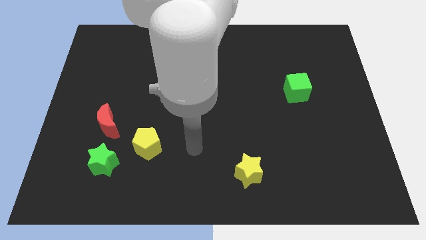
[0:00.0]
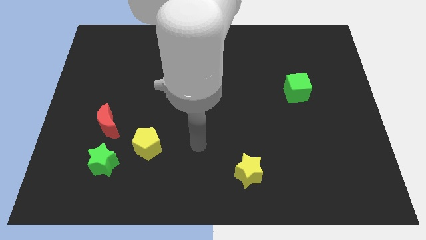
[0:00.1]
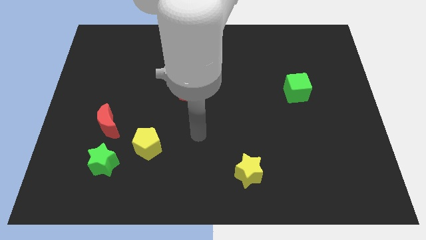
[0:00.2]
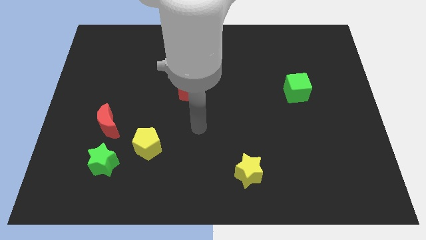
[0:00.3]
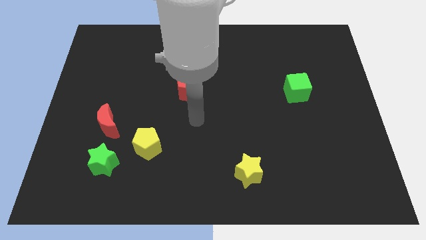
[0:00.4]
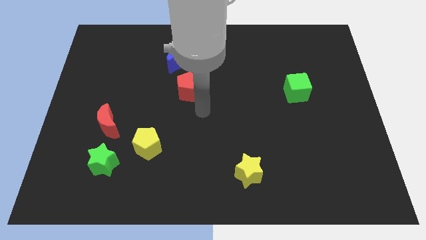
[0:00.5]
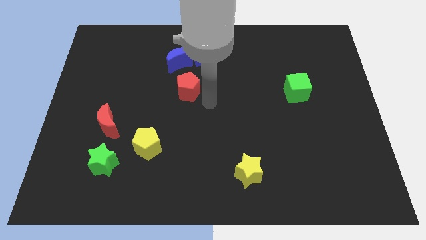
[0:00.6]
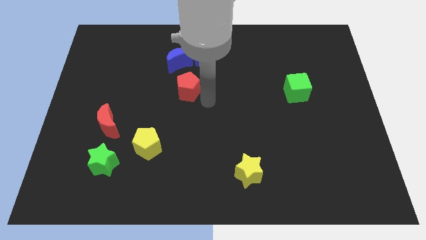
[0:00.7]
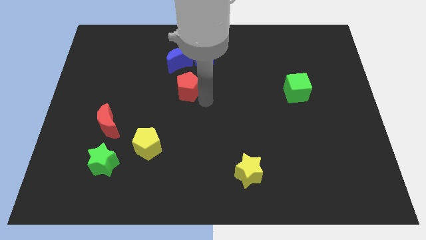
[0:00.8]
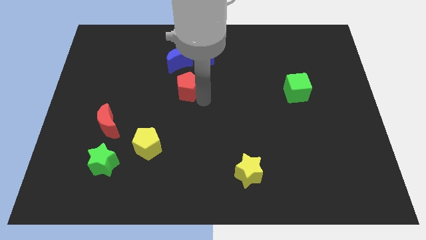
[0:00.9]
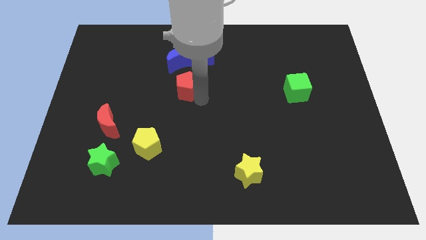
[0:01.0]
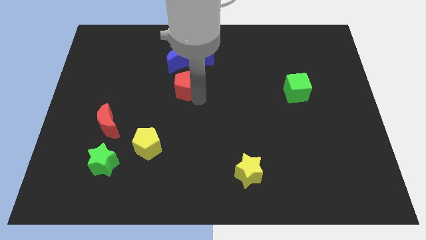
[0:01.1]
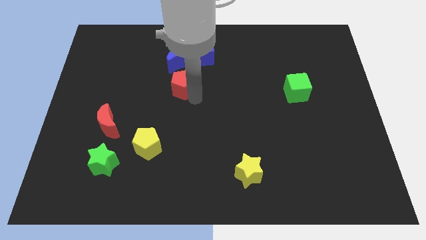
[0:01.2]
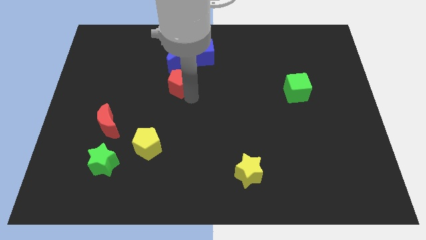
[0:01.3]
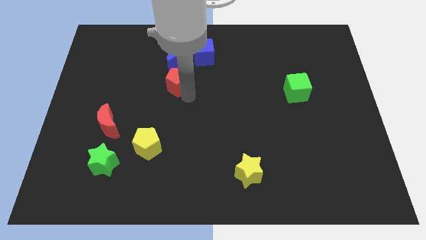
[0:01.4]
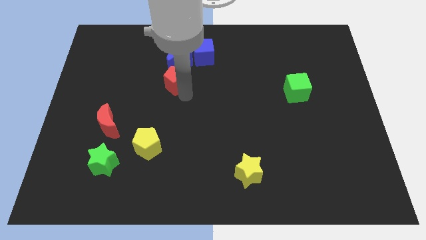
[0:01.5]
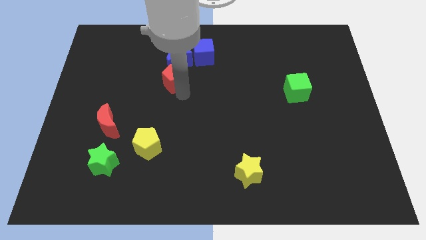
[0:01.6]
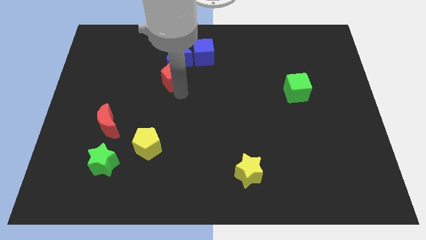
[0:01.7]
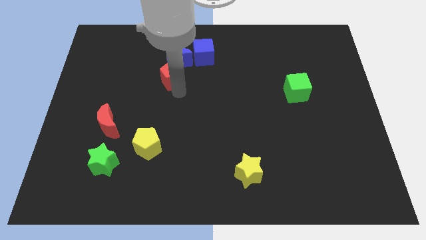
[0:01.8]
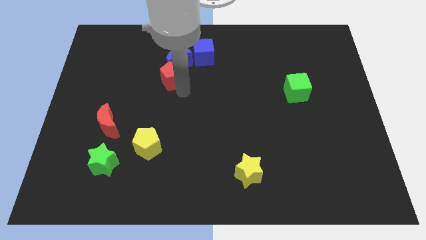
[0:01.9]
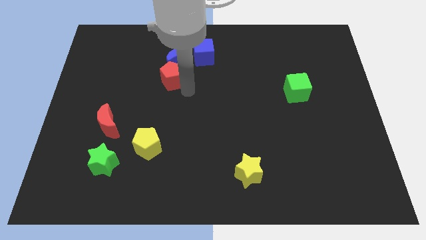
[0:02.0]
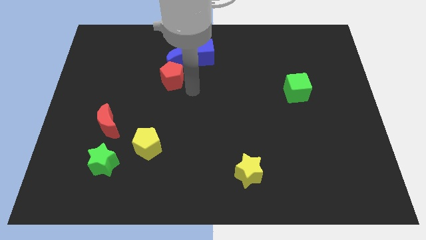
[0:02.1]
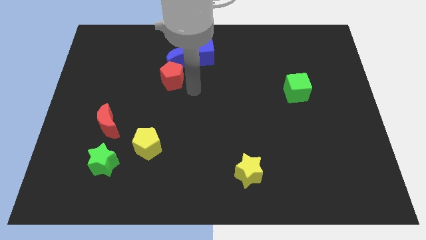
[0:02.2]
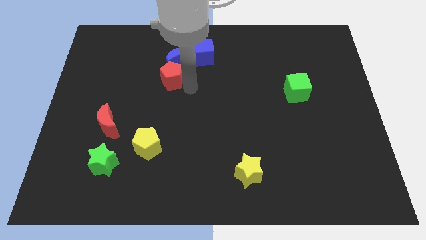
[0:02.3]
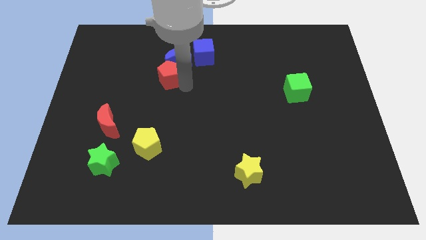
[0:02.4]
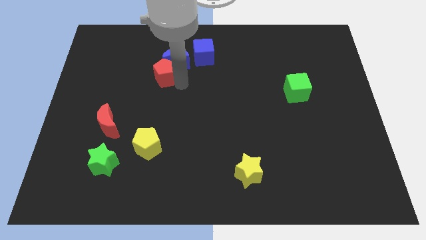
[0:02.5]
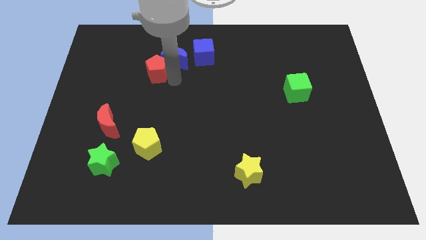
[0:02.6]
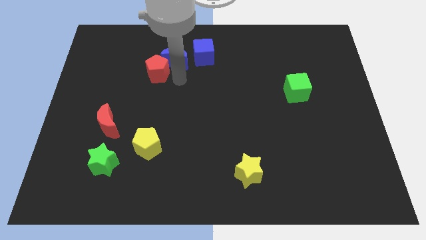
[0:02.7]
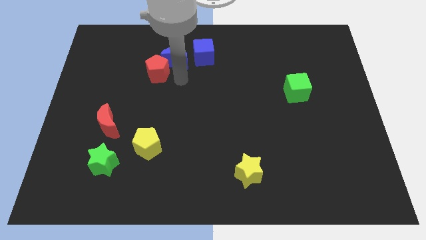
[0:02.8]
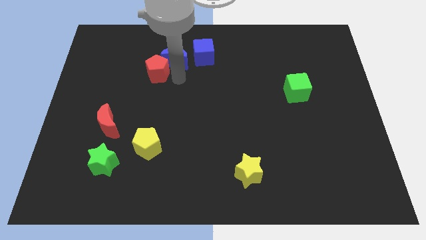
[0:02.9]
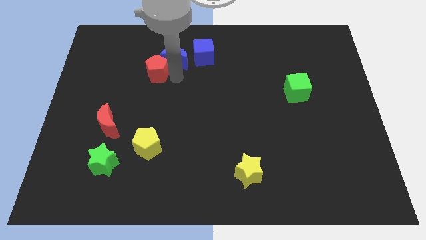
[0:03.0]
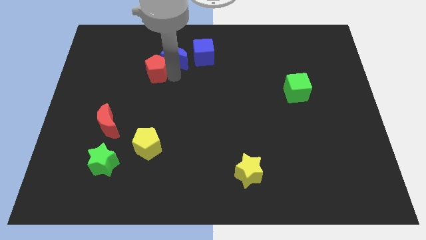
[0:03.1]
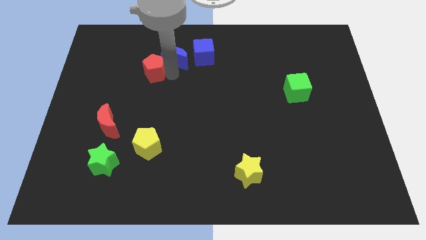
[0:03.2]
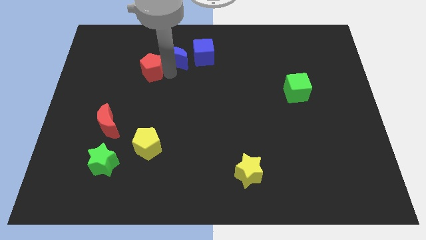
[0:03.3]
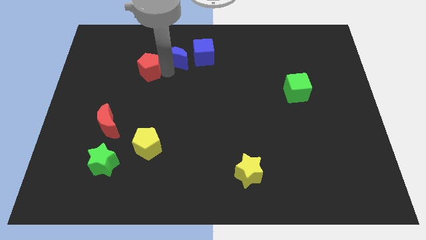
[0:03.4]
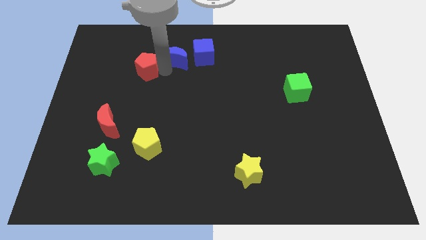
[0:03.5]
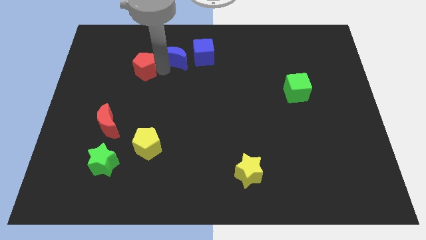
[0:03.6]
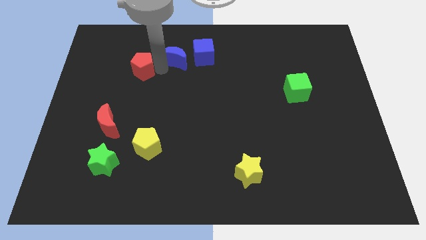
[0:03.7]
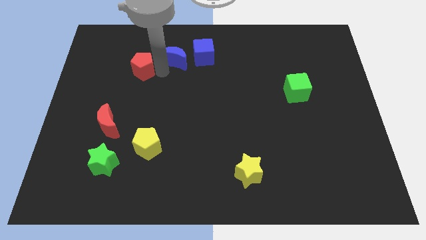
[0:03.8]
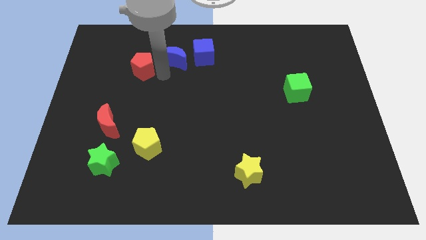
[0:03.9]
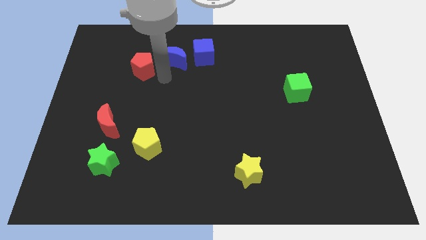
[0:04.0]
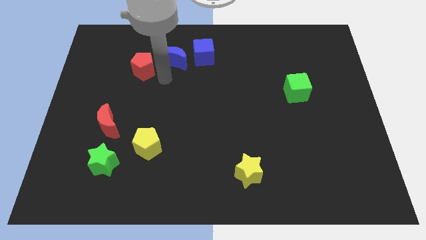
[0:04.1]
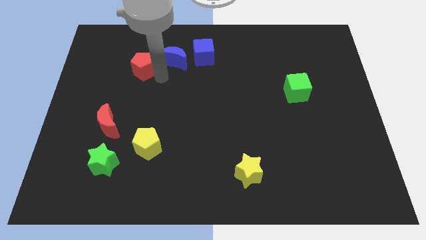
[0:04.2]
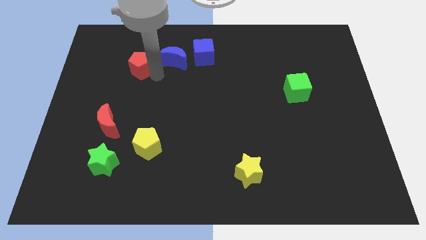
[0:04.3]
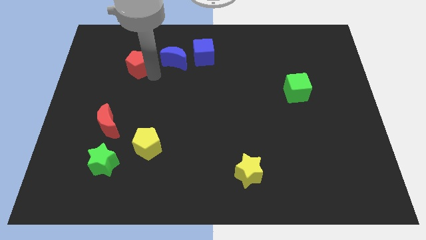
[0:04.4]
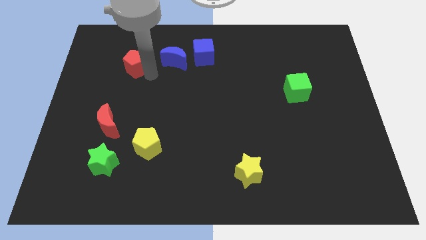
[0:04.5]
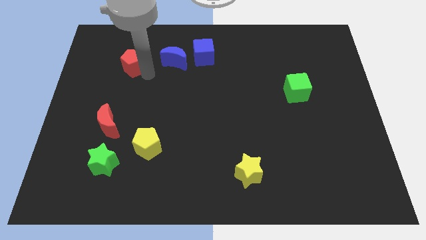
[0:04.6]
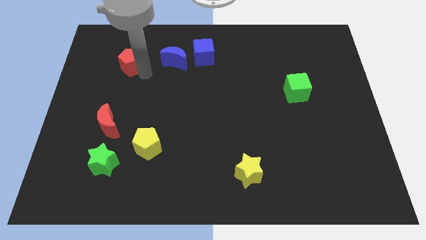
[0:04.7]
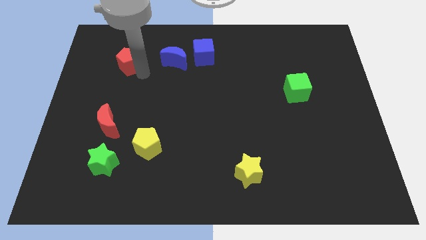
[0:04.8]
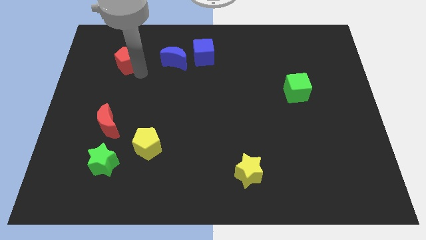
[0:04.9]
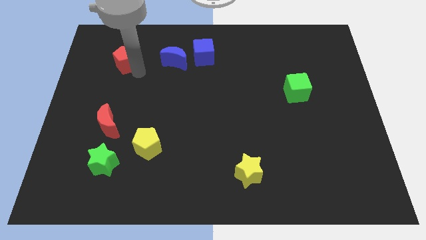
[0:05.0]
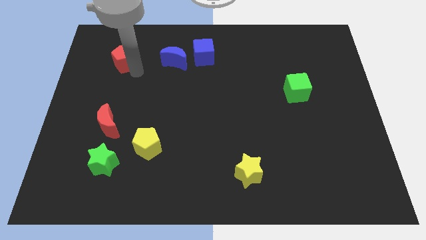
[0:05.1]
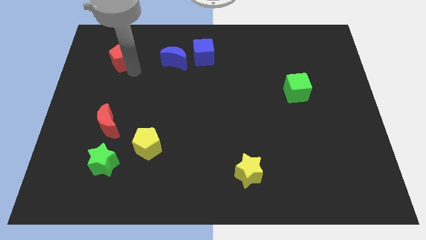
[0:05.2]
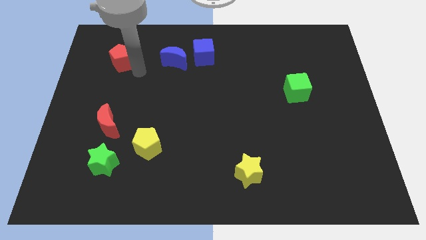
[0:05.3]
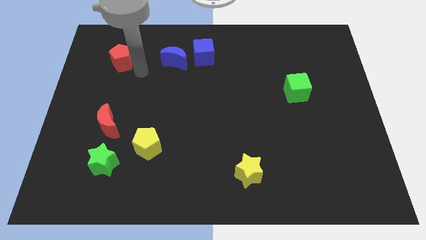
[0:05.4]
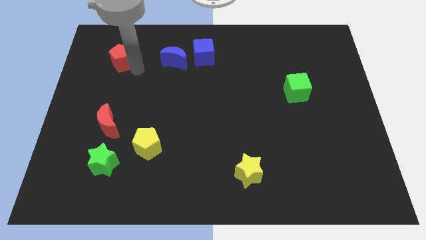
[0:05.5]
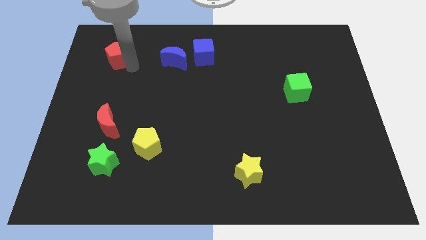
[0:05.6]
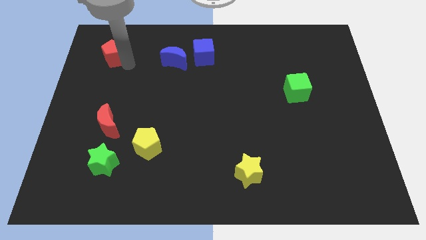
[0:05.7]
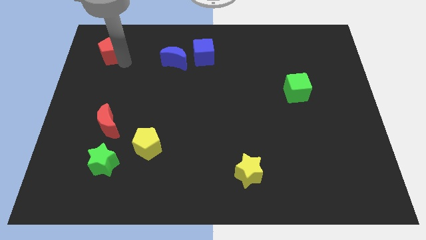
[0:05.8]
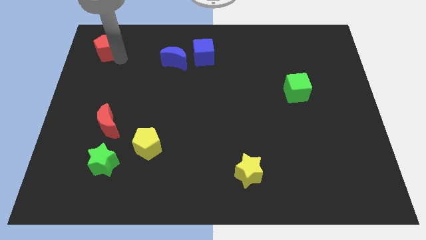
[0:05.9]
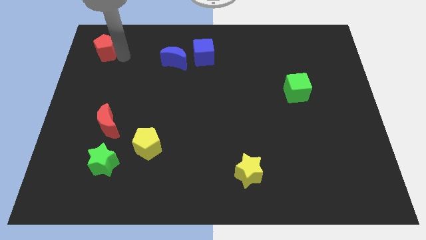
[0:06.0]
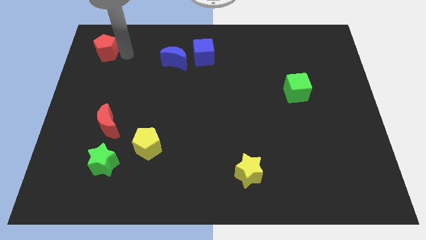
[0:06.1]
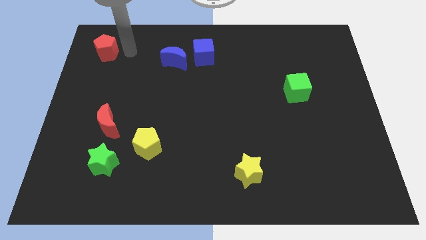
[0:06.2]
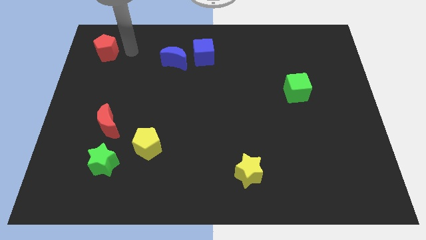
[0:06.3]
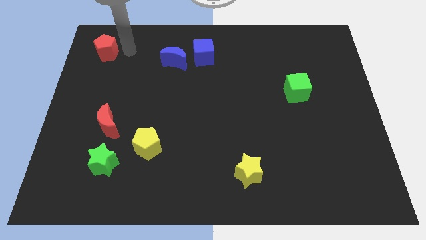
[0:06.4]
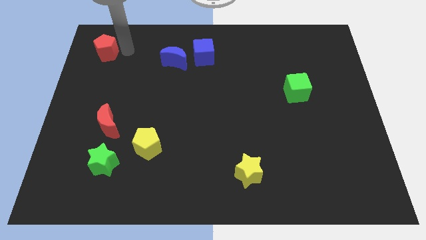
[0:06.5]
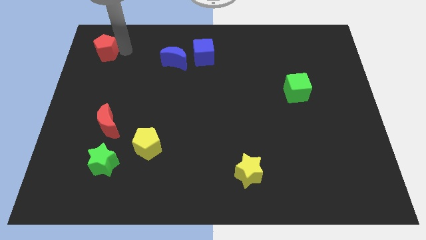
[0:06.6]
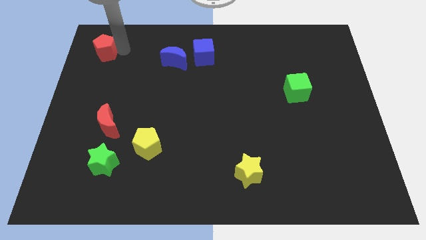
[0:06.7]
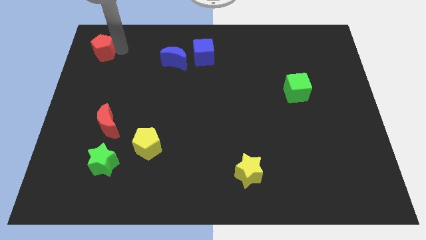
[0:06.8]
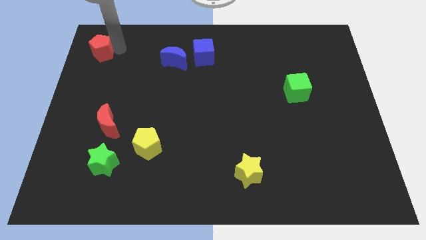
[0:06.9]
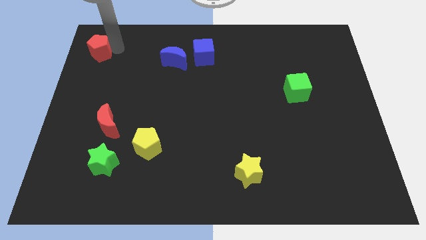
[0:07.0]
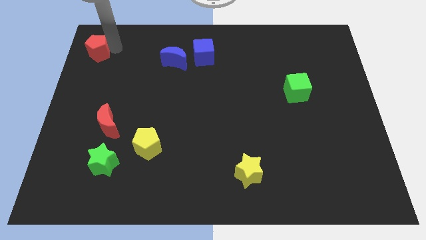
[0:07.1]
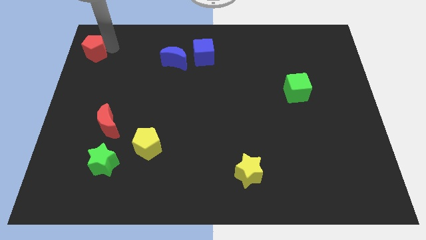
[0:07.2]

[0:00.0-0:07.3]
move the red pentagon to the upper left corner

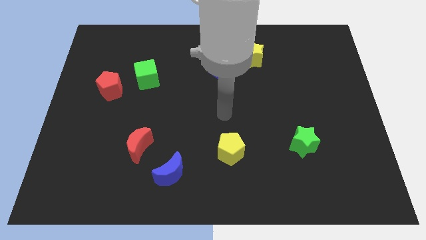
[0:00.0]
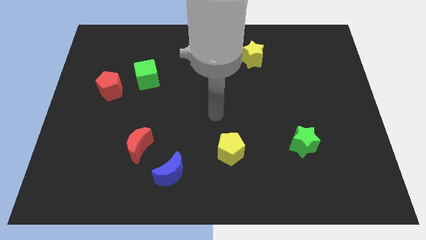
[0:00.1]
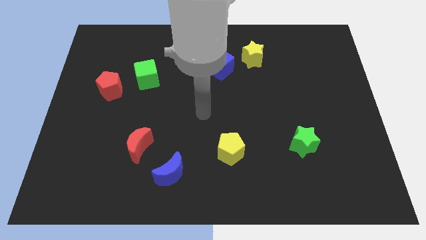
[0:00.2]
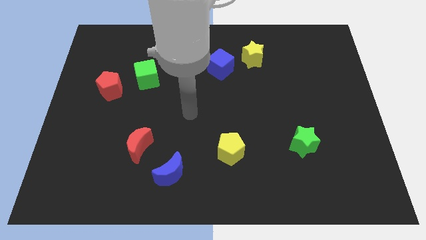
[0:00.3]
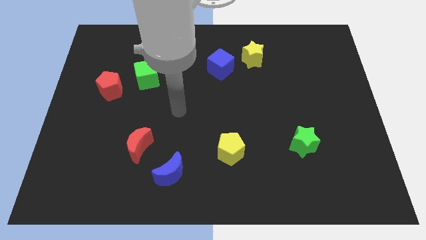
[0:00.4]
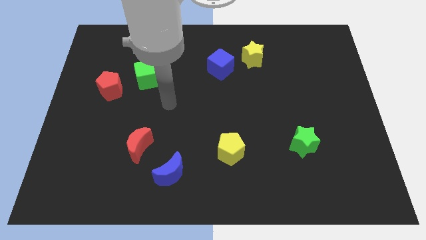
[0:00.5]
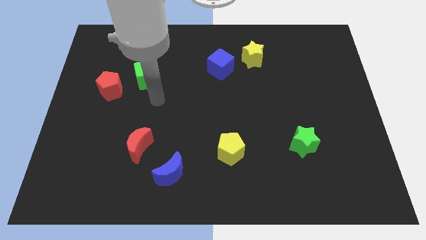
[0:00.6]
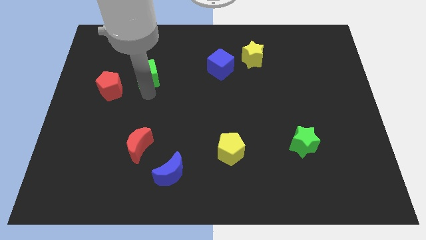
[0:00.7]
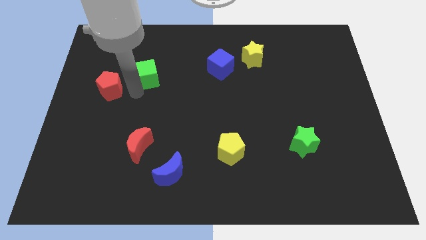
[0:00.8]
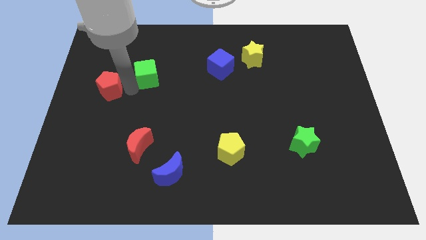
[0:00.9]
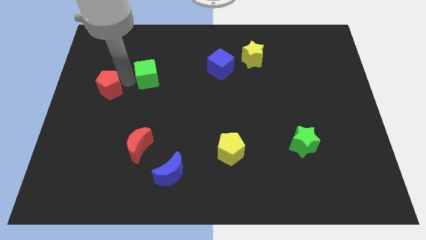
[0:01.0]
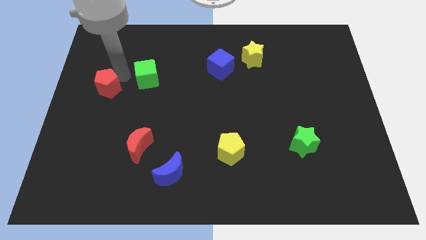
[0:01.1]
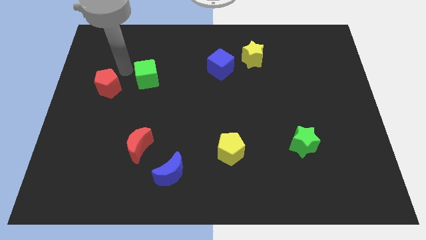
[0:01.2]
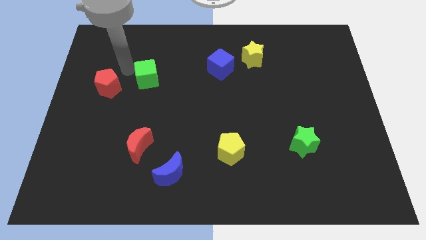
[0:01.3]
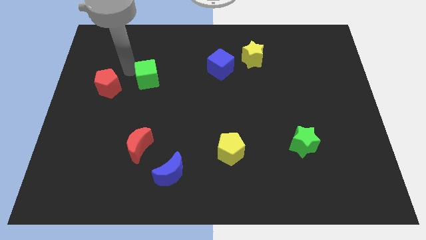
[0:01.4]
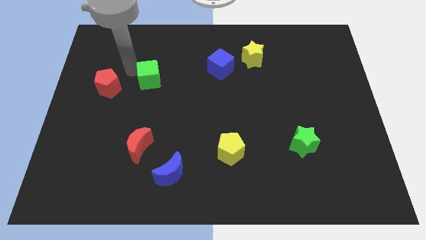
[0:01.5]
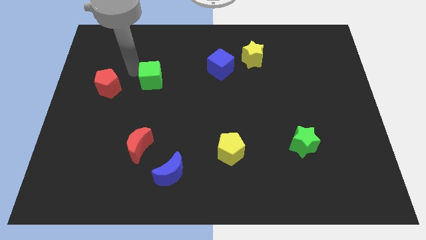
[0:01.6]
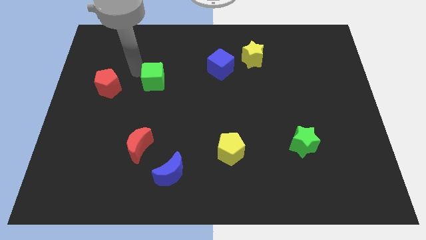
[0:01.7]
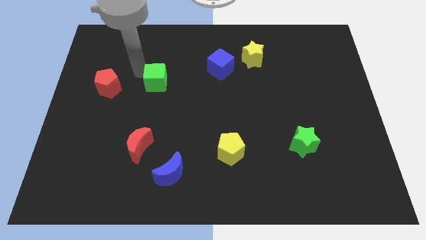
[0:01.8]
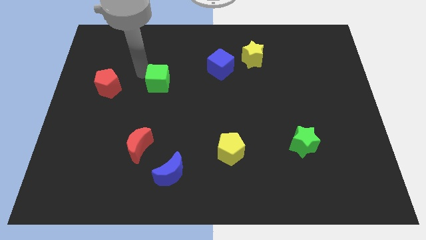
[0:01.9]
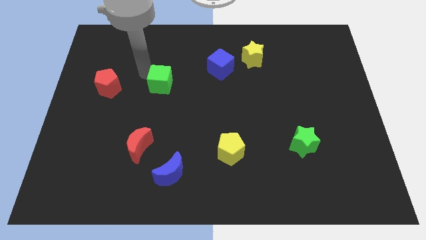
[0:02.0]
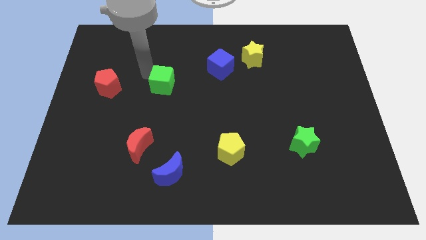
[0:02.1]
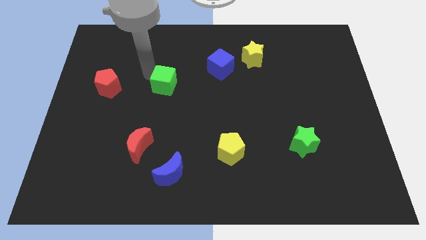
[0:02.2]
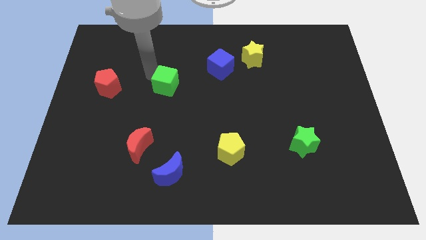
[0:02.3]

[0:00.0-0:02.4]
push the green cube to the middle
